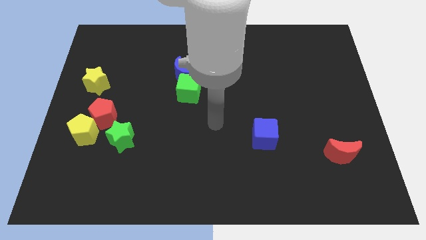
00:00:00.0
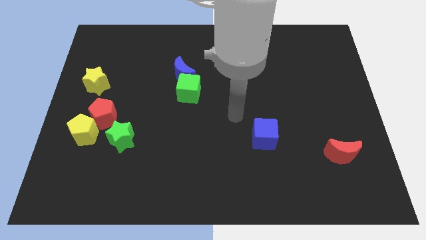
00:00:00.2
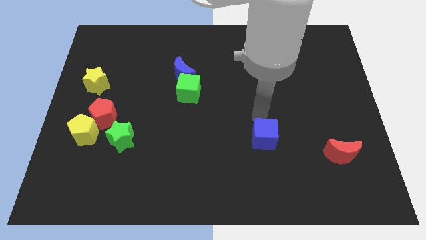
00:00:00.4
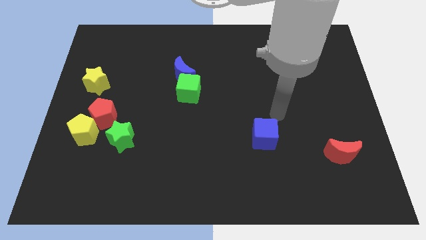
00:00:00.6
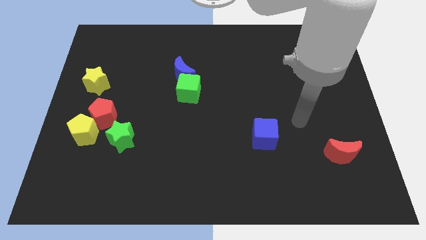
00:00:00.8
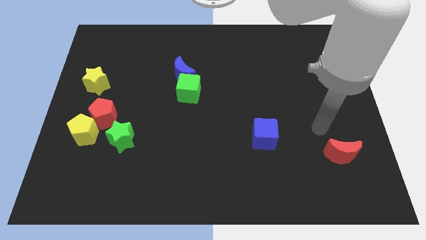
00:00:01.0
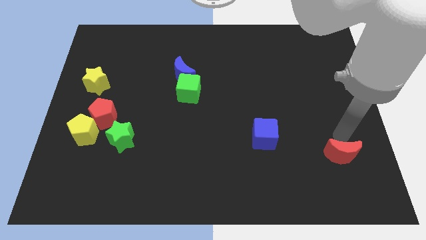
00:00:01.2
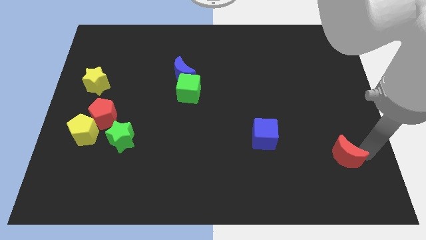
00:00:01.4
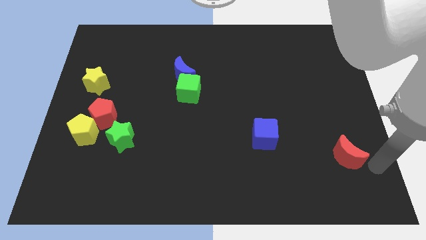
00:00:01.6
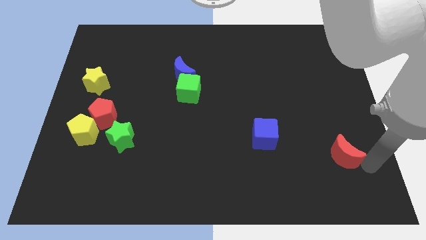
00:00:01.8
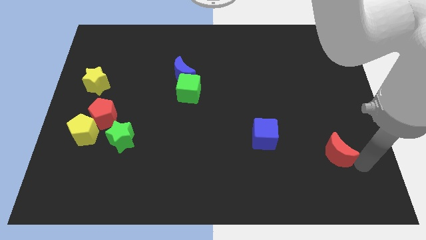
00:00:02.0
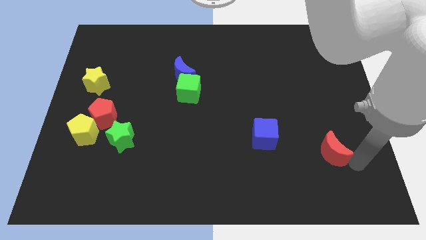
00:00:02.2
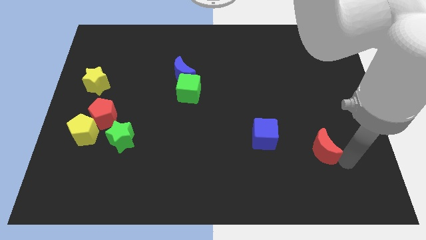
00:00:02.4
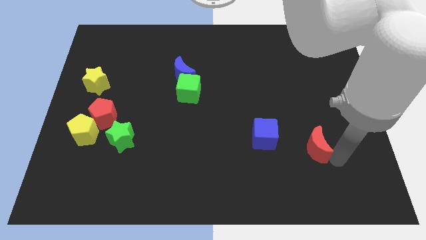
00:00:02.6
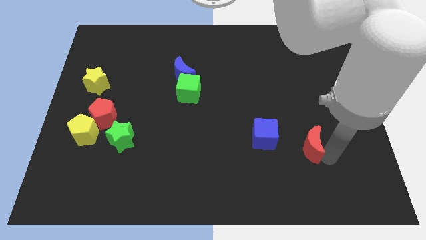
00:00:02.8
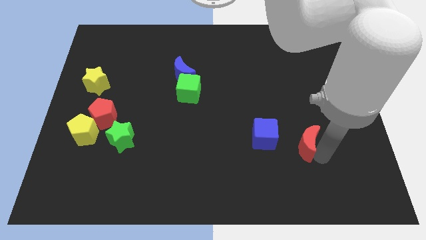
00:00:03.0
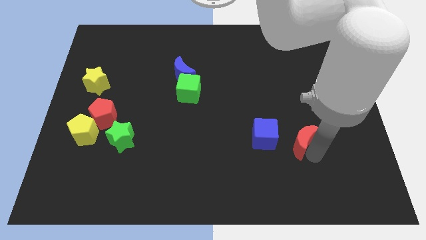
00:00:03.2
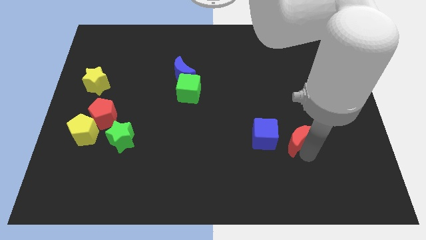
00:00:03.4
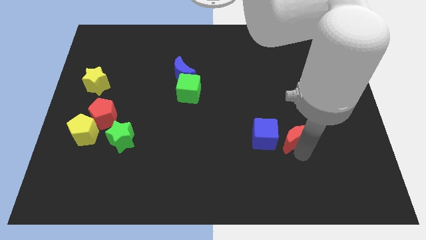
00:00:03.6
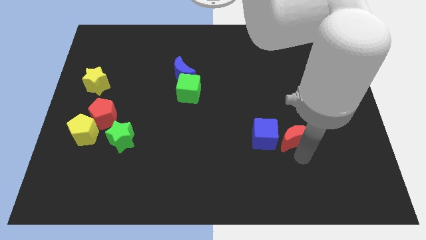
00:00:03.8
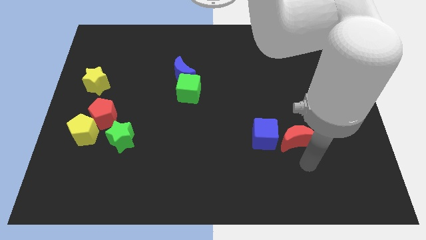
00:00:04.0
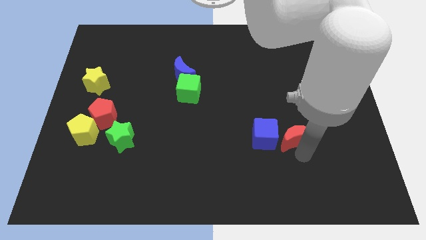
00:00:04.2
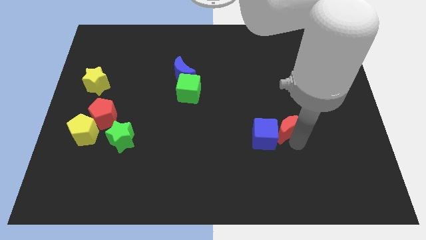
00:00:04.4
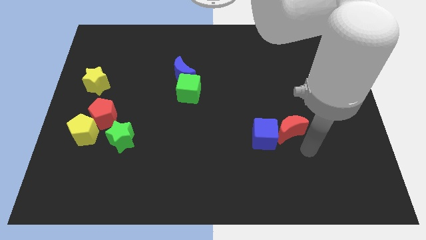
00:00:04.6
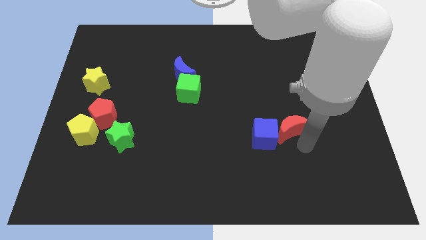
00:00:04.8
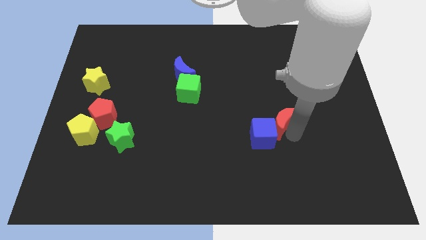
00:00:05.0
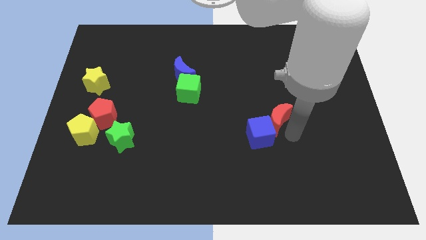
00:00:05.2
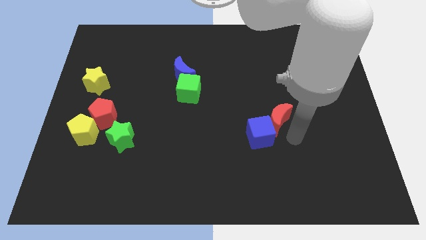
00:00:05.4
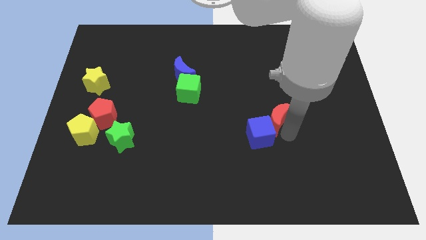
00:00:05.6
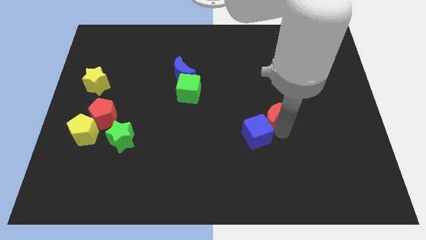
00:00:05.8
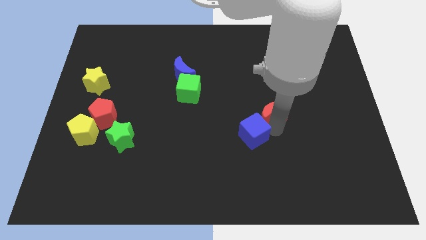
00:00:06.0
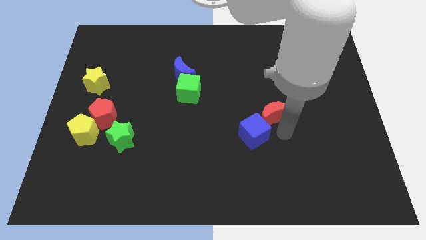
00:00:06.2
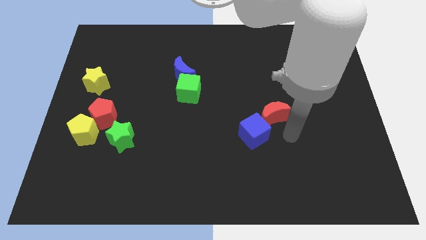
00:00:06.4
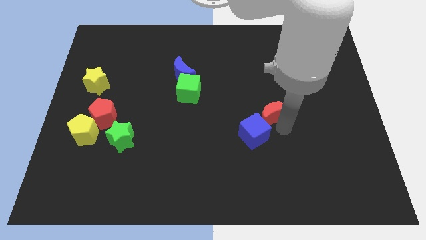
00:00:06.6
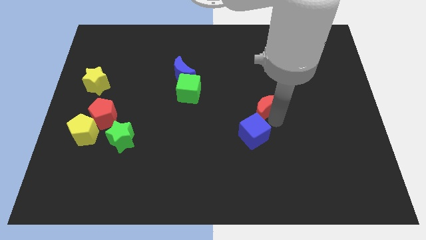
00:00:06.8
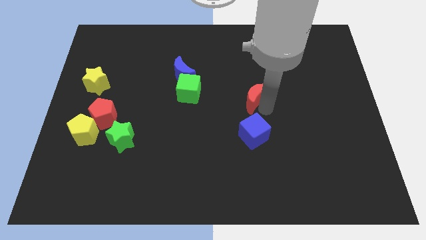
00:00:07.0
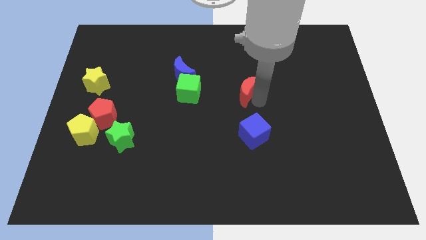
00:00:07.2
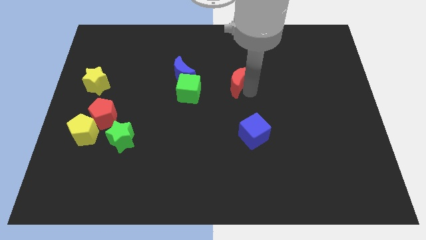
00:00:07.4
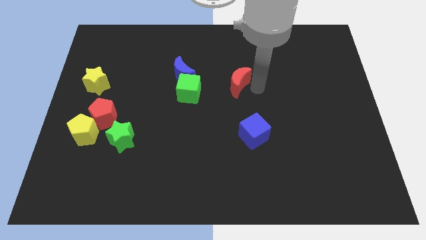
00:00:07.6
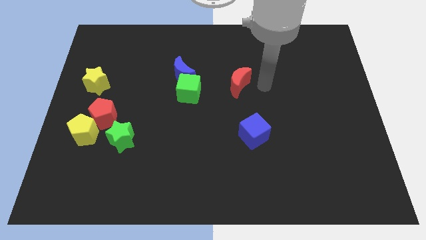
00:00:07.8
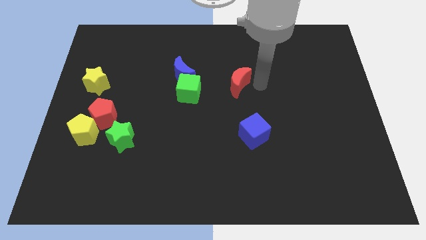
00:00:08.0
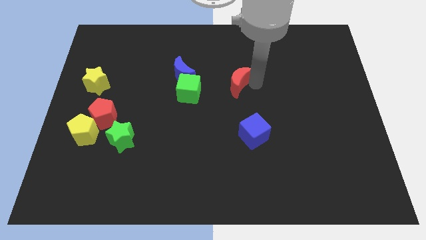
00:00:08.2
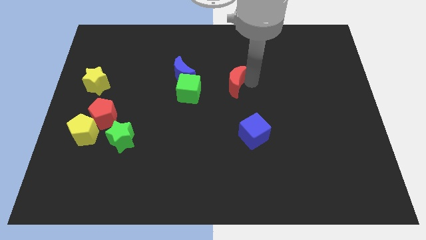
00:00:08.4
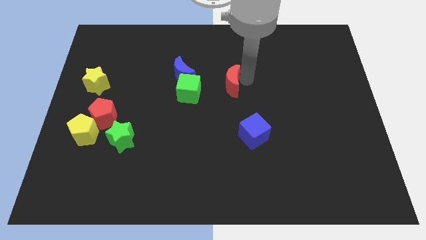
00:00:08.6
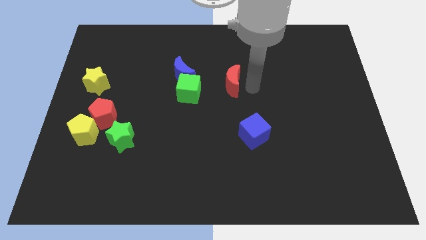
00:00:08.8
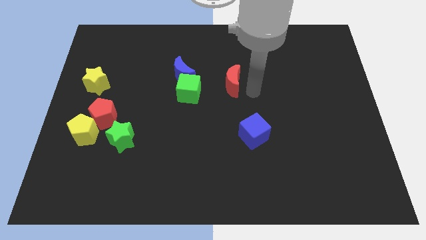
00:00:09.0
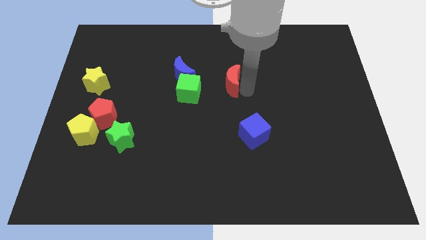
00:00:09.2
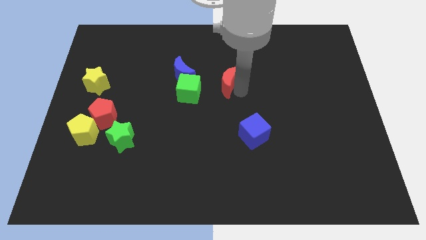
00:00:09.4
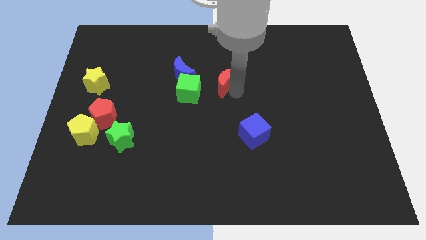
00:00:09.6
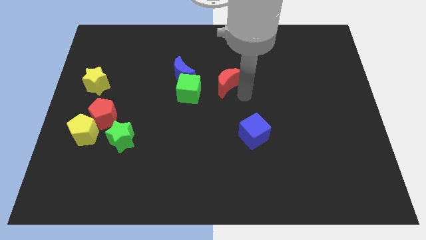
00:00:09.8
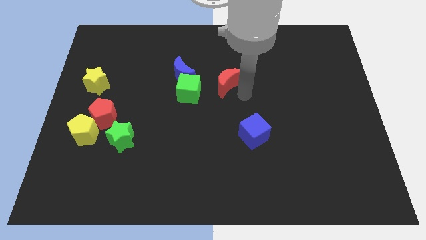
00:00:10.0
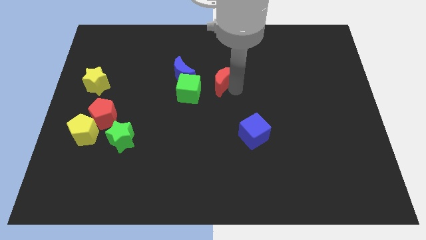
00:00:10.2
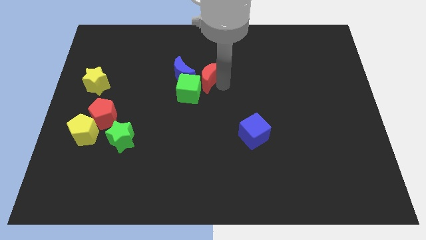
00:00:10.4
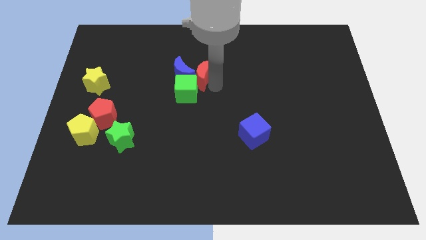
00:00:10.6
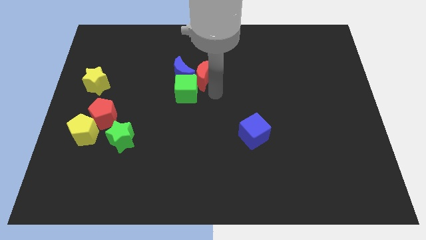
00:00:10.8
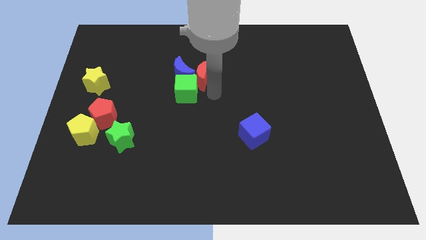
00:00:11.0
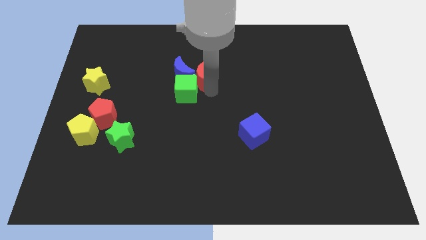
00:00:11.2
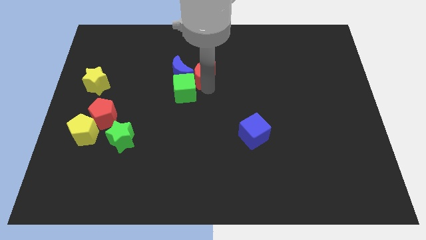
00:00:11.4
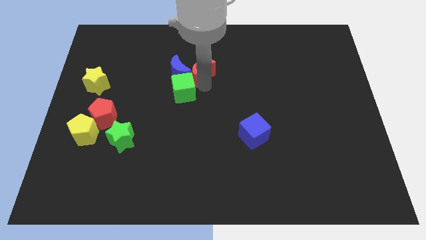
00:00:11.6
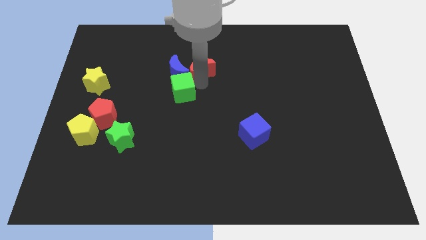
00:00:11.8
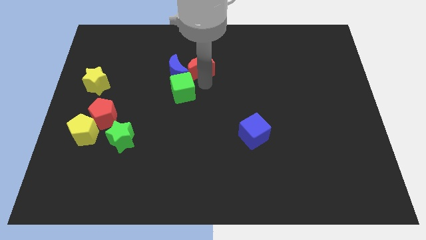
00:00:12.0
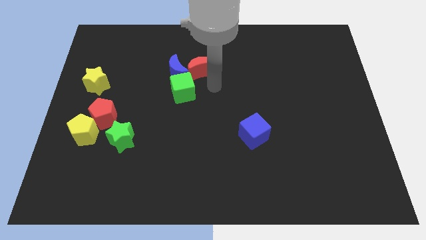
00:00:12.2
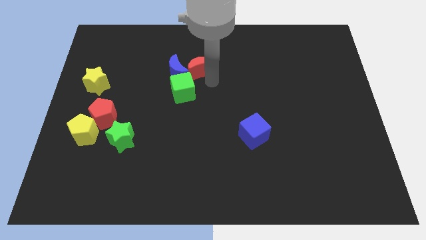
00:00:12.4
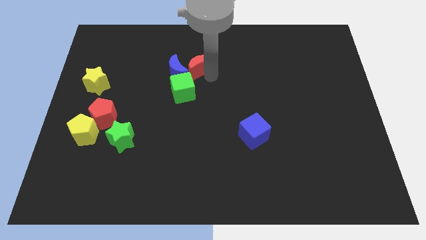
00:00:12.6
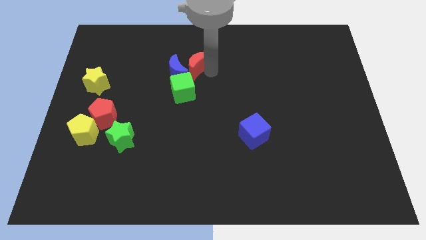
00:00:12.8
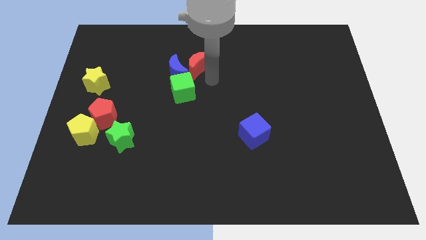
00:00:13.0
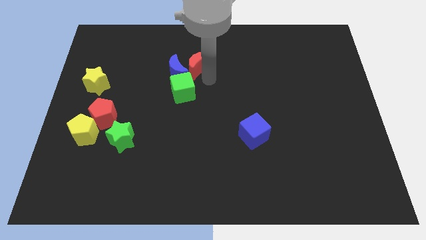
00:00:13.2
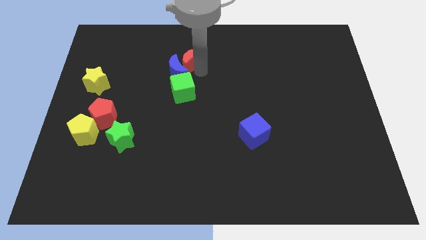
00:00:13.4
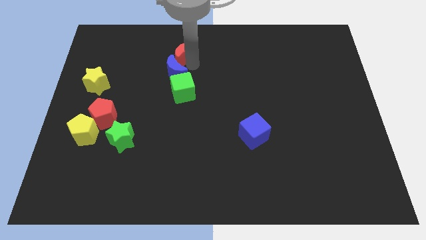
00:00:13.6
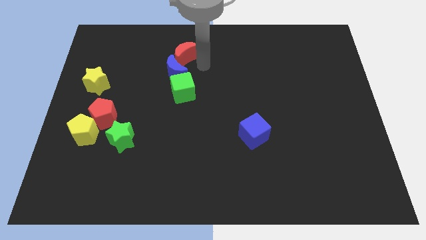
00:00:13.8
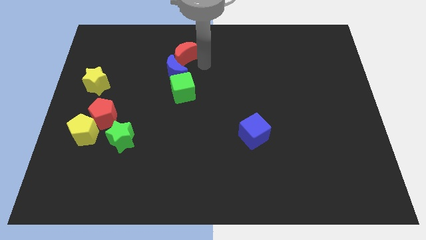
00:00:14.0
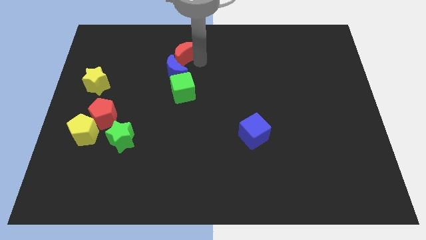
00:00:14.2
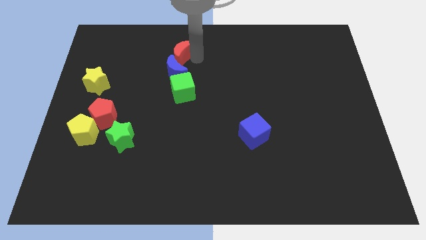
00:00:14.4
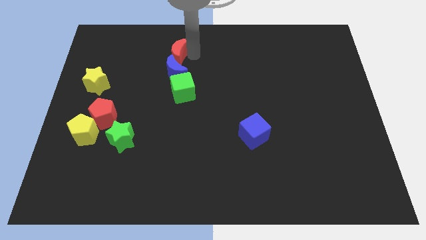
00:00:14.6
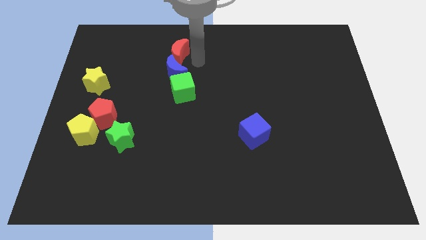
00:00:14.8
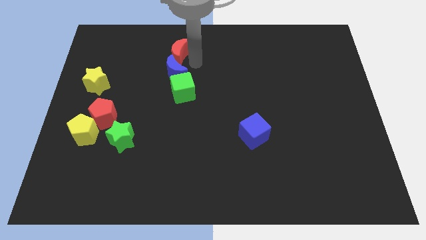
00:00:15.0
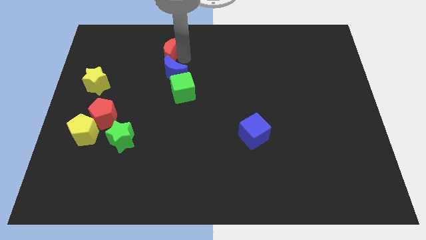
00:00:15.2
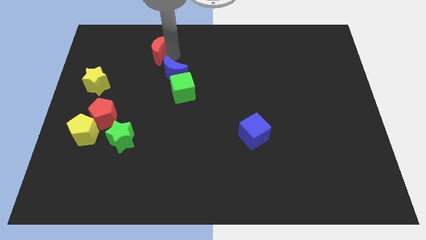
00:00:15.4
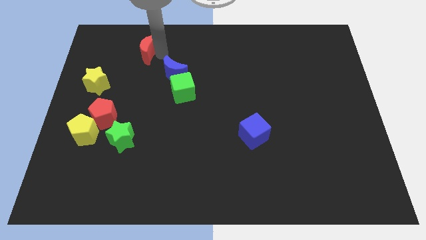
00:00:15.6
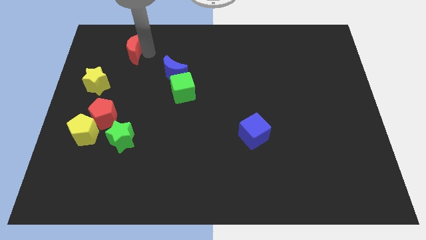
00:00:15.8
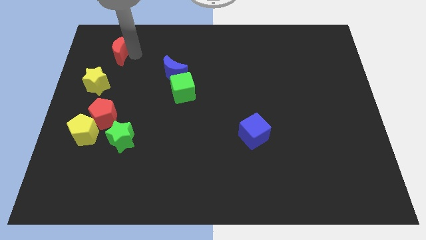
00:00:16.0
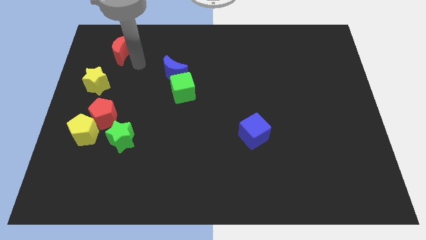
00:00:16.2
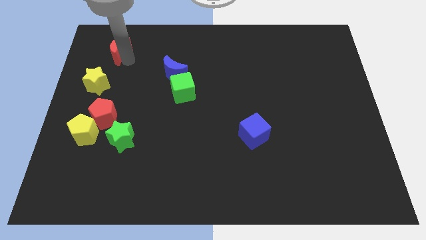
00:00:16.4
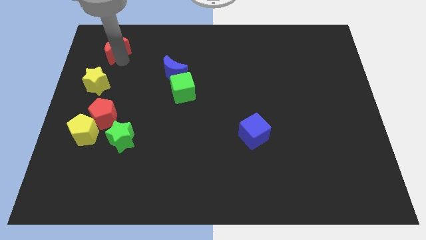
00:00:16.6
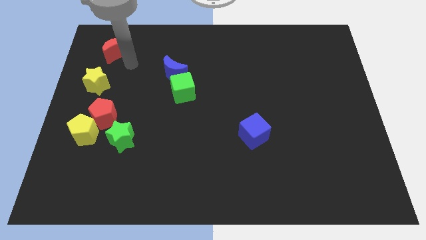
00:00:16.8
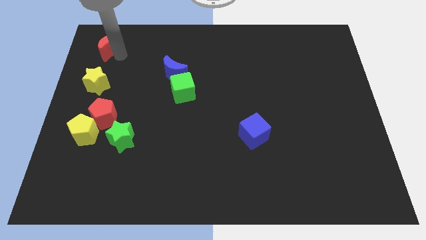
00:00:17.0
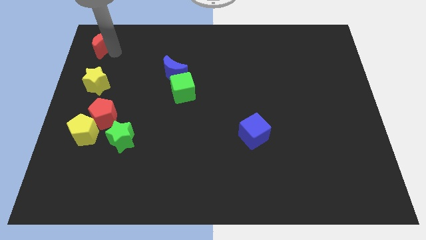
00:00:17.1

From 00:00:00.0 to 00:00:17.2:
put the red moon to the top left
